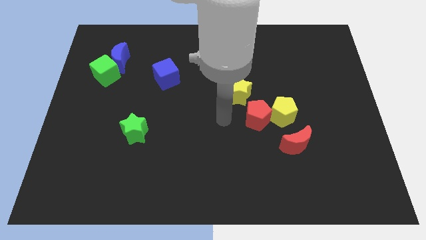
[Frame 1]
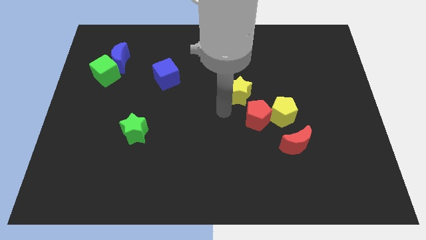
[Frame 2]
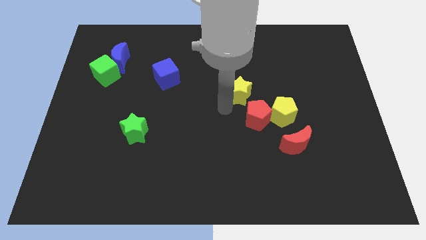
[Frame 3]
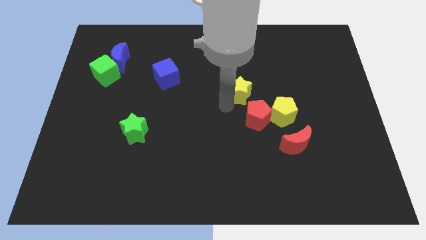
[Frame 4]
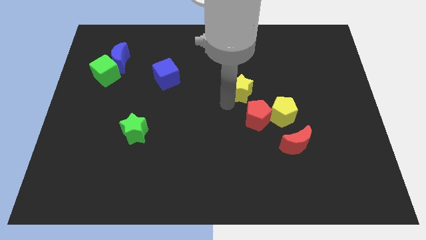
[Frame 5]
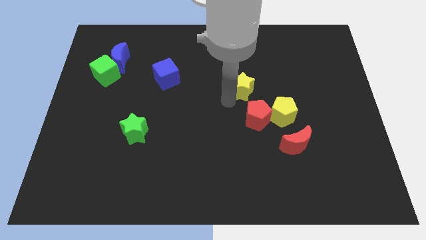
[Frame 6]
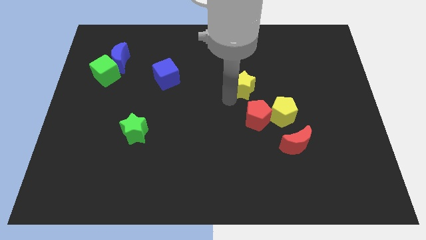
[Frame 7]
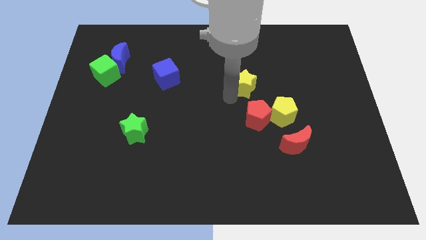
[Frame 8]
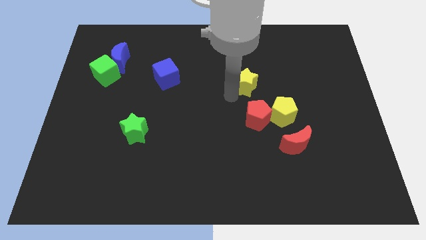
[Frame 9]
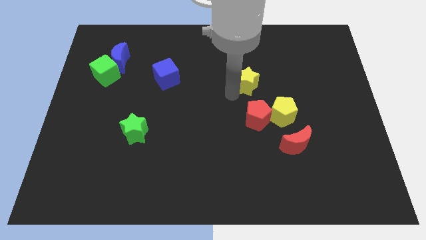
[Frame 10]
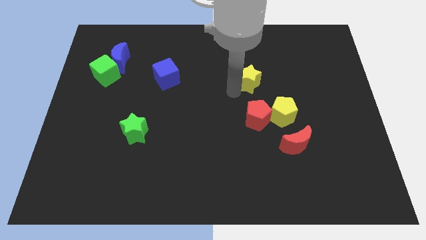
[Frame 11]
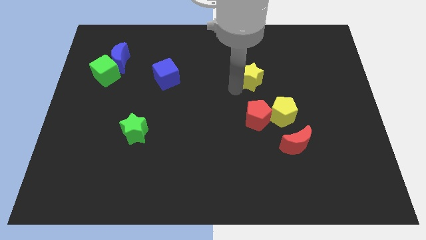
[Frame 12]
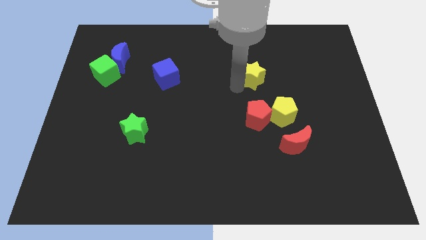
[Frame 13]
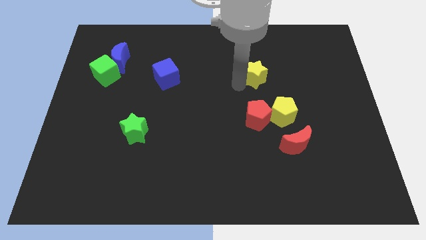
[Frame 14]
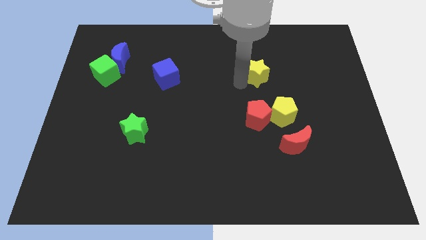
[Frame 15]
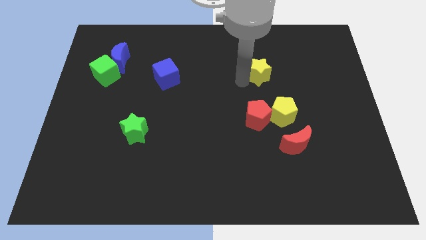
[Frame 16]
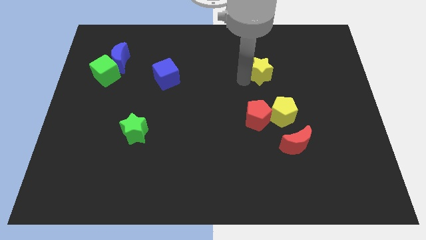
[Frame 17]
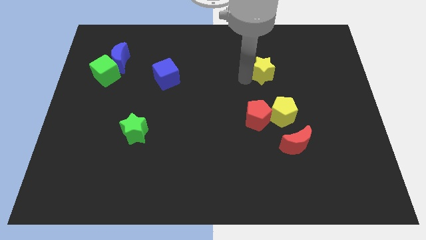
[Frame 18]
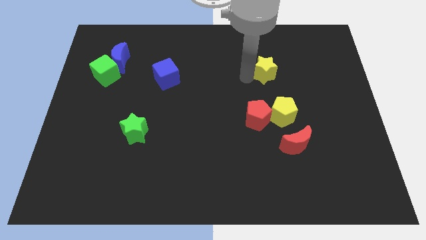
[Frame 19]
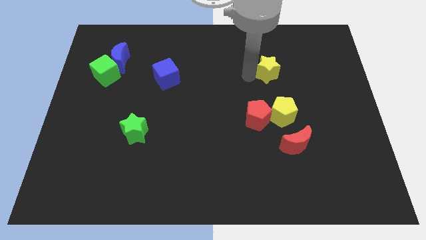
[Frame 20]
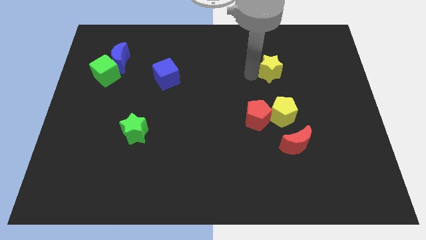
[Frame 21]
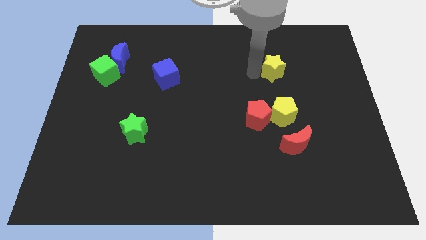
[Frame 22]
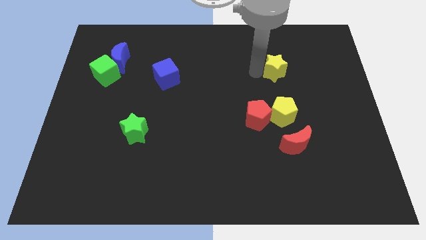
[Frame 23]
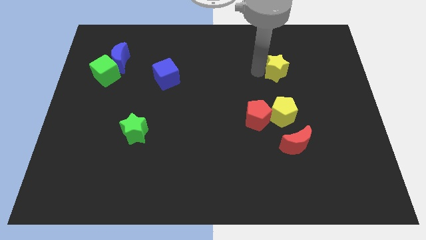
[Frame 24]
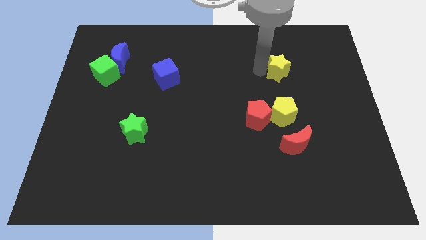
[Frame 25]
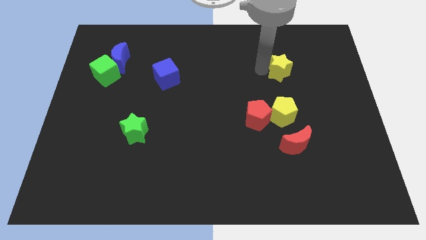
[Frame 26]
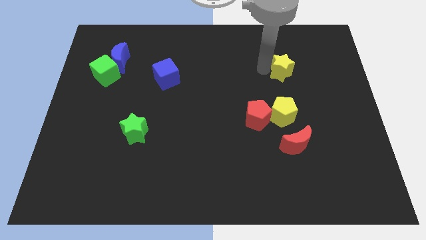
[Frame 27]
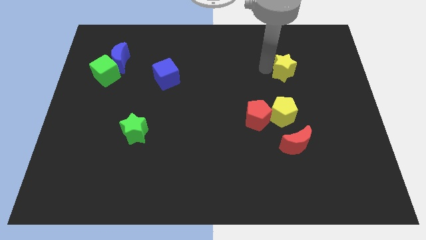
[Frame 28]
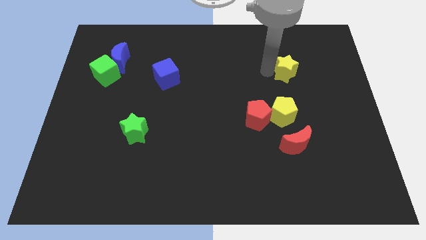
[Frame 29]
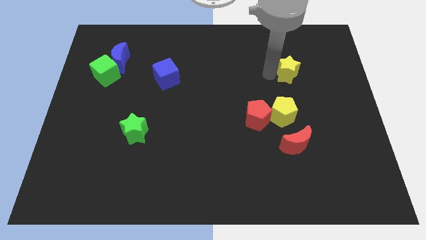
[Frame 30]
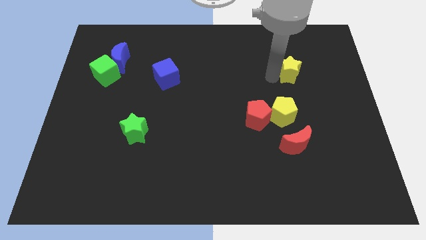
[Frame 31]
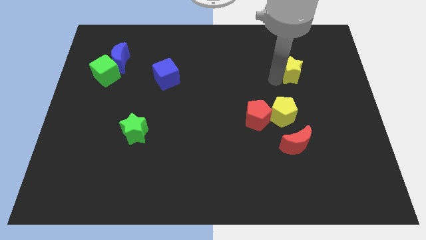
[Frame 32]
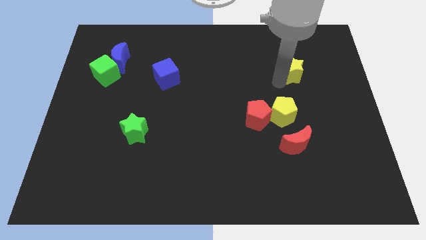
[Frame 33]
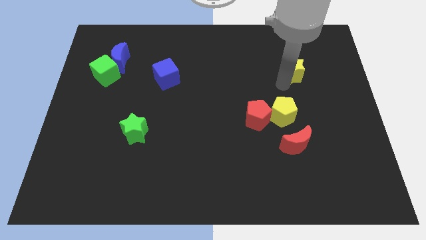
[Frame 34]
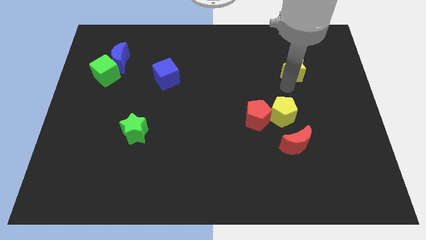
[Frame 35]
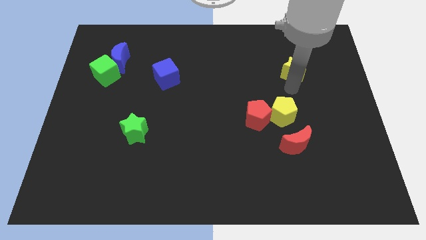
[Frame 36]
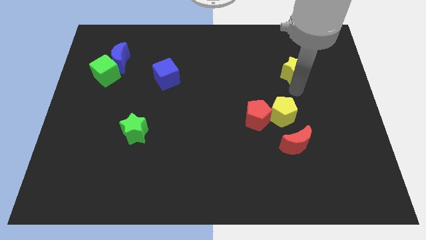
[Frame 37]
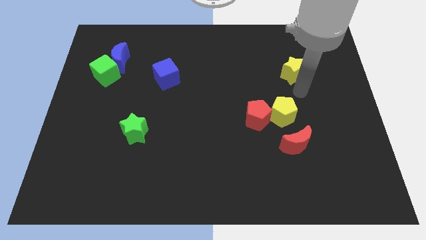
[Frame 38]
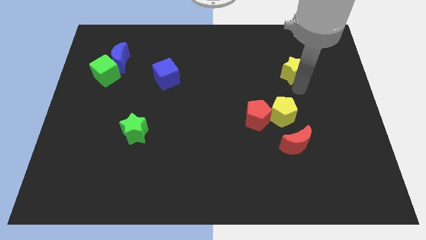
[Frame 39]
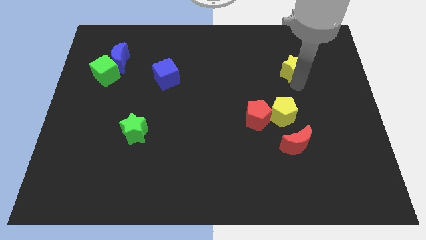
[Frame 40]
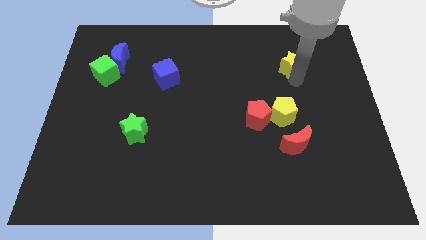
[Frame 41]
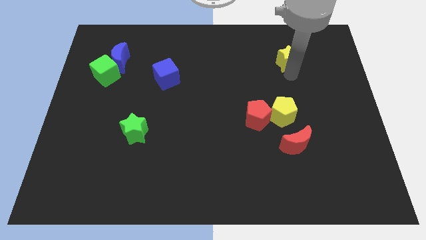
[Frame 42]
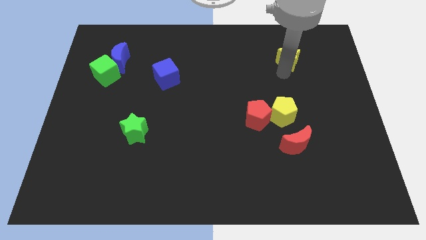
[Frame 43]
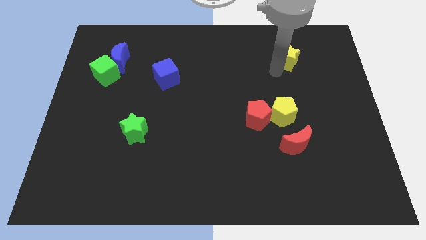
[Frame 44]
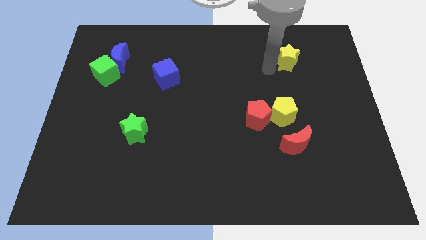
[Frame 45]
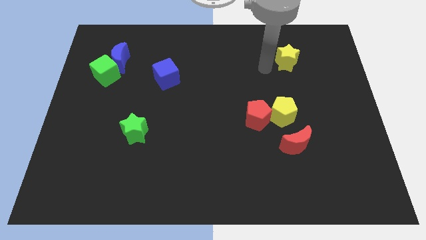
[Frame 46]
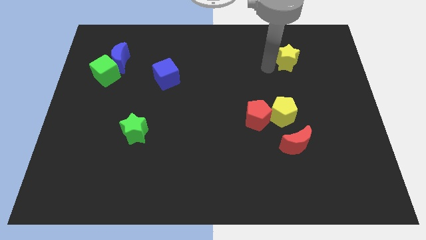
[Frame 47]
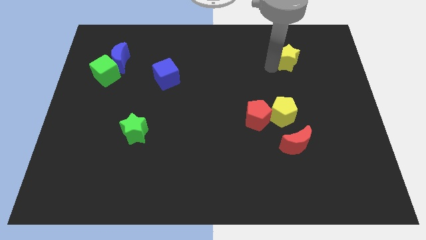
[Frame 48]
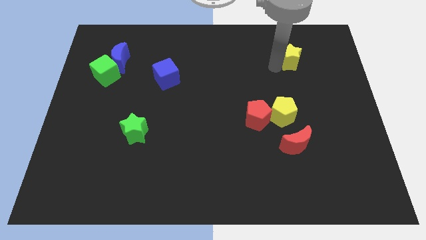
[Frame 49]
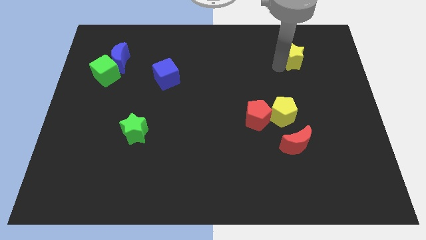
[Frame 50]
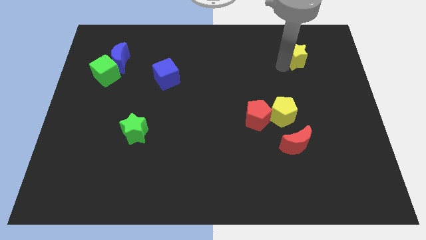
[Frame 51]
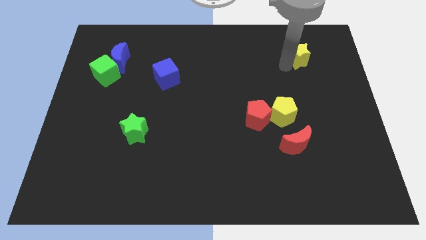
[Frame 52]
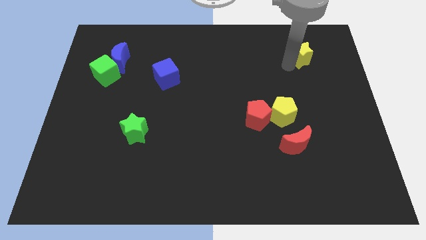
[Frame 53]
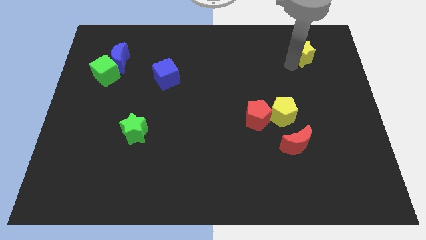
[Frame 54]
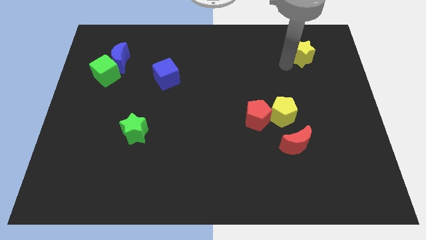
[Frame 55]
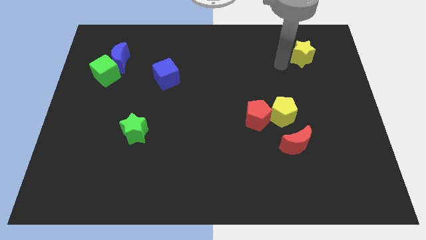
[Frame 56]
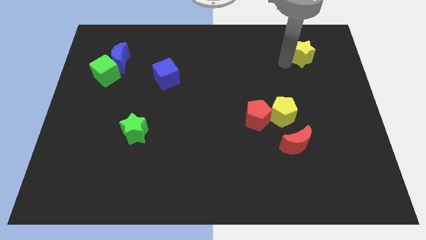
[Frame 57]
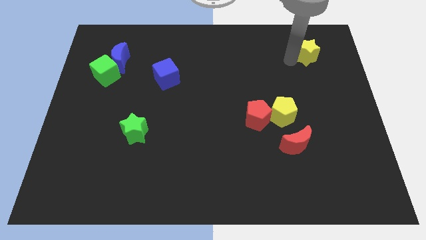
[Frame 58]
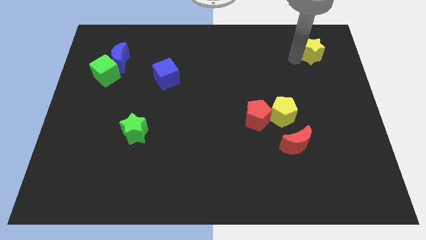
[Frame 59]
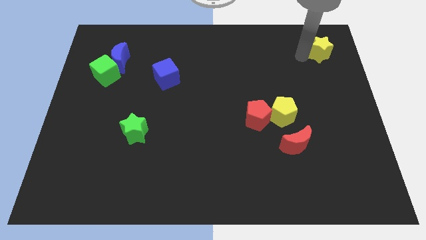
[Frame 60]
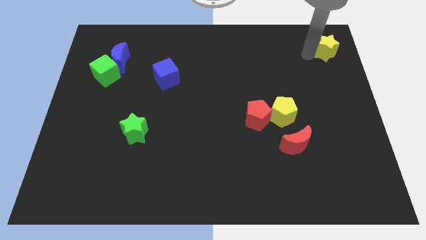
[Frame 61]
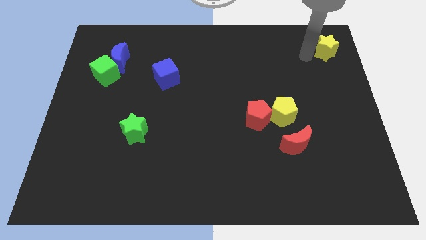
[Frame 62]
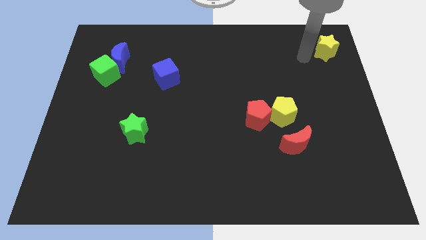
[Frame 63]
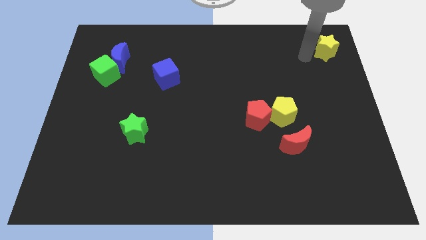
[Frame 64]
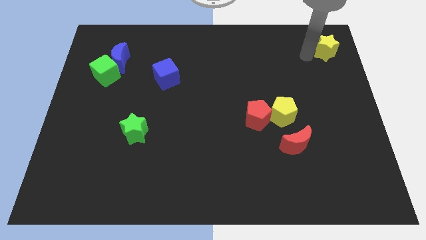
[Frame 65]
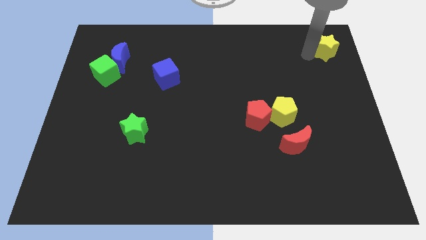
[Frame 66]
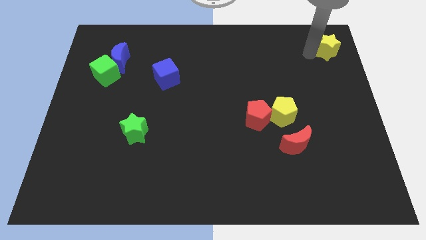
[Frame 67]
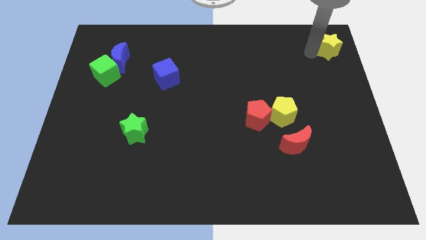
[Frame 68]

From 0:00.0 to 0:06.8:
push the yellow star to the upper right corner
